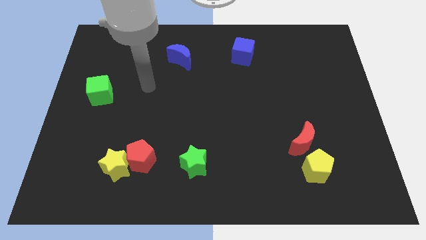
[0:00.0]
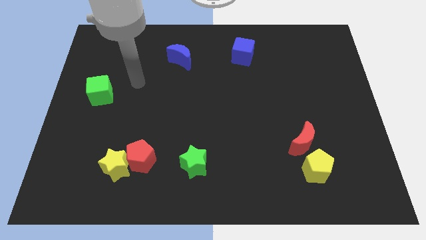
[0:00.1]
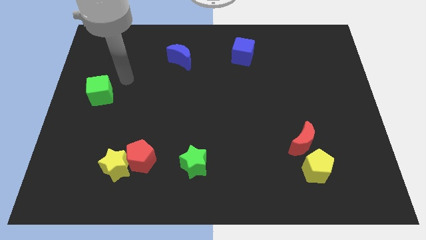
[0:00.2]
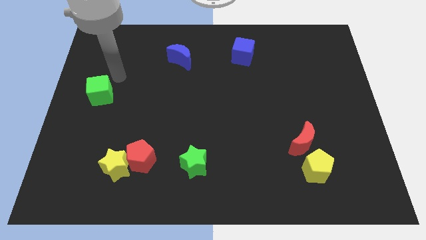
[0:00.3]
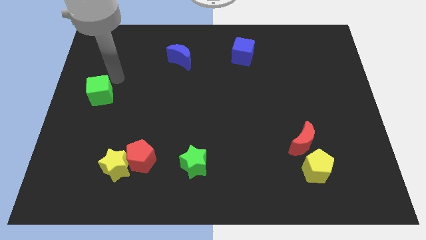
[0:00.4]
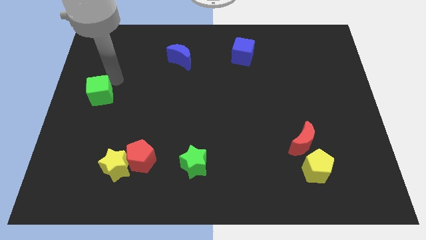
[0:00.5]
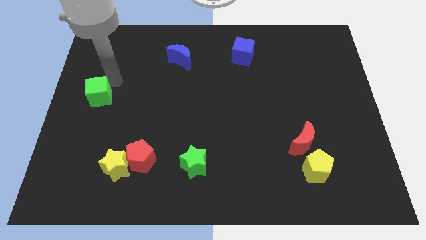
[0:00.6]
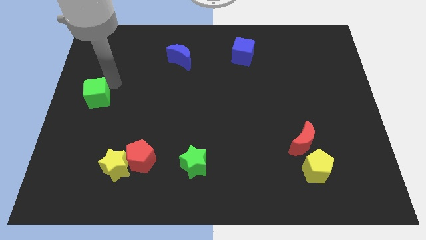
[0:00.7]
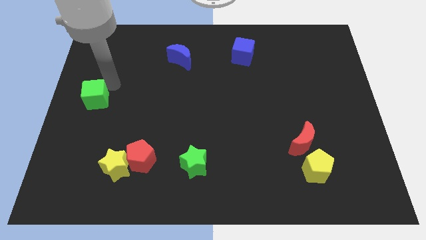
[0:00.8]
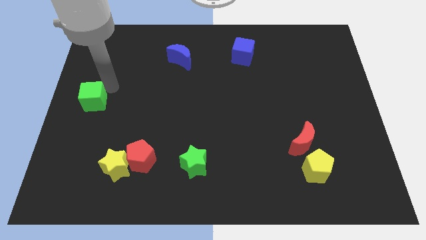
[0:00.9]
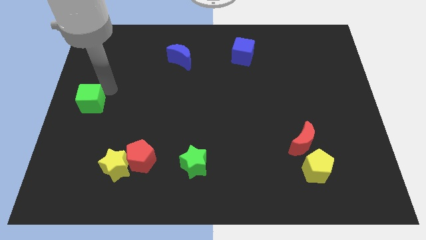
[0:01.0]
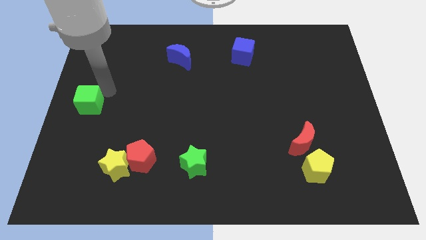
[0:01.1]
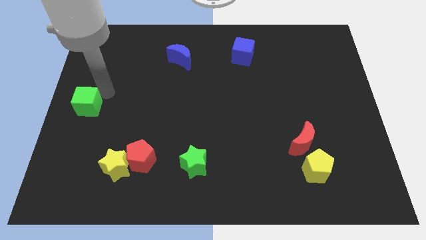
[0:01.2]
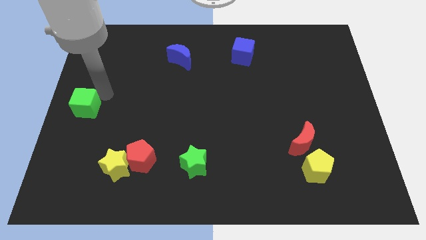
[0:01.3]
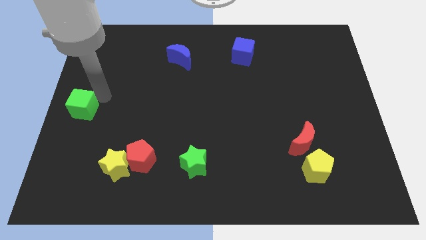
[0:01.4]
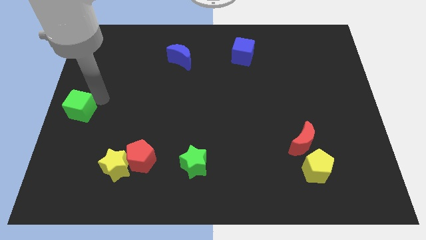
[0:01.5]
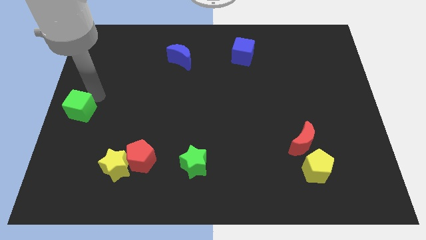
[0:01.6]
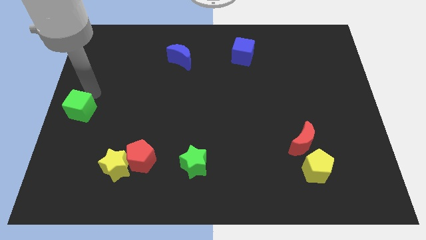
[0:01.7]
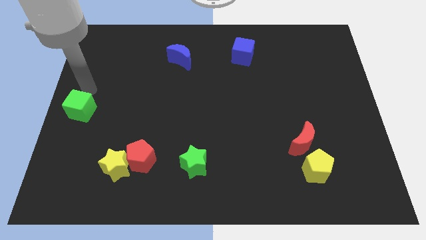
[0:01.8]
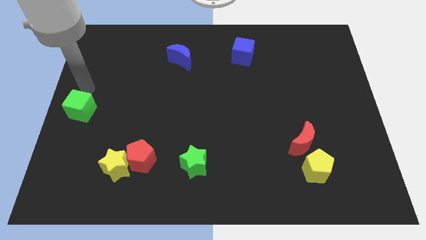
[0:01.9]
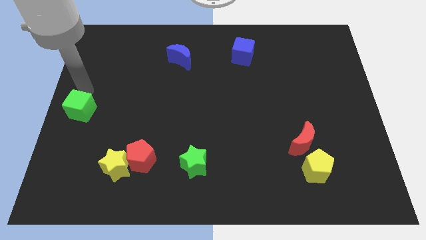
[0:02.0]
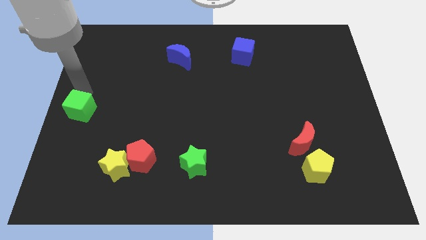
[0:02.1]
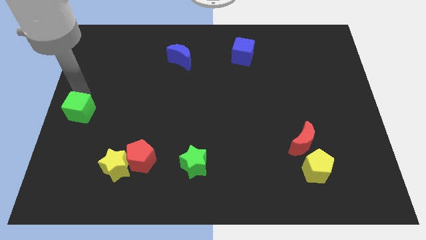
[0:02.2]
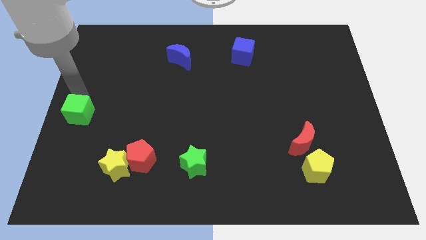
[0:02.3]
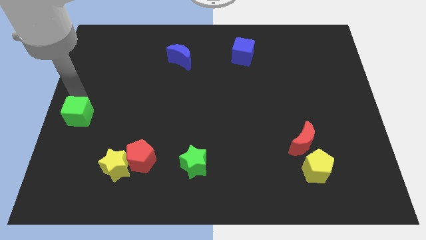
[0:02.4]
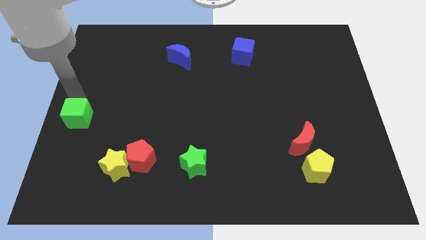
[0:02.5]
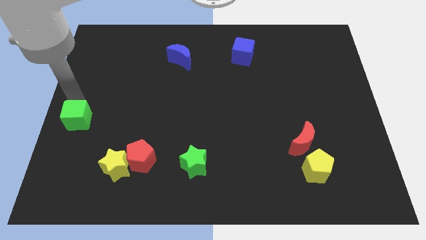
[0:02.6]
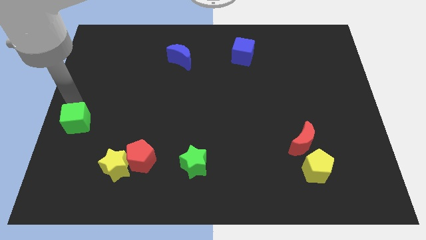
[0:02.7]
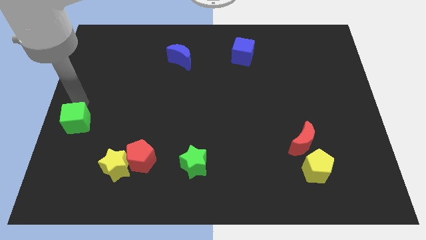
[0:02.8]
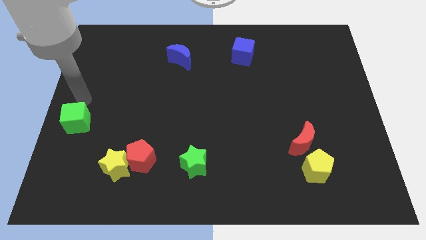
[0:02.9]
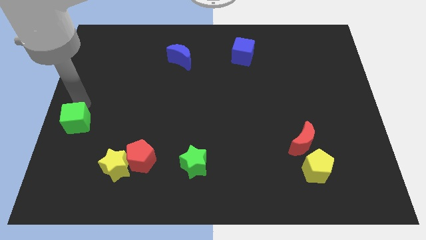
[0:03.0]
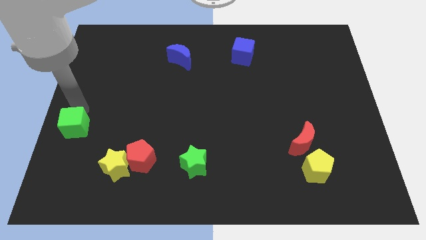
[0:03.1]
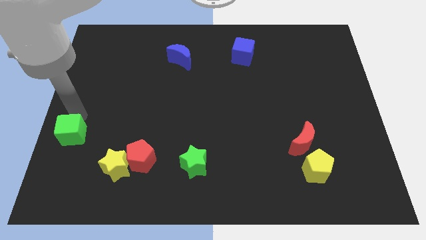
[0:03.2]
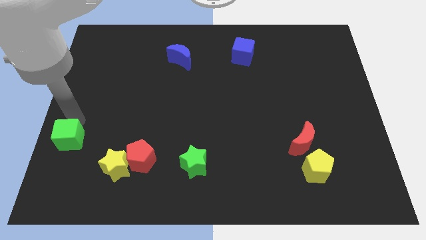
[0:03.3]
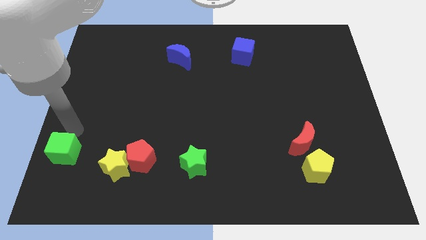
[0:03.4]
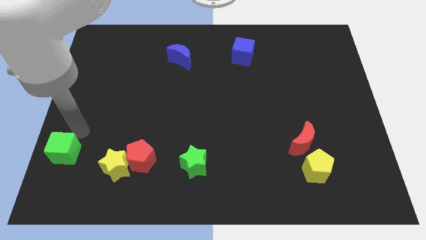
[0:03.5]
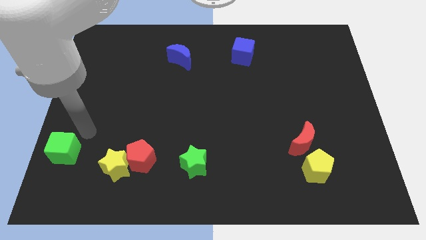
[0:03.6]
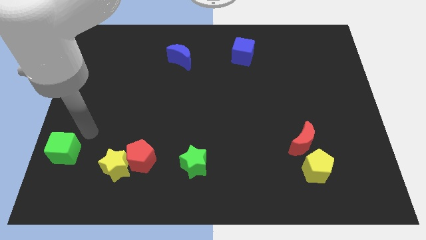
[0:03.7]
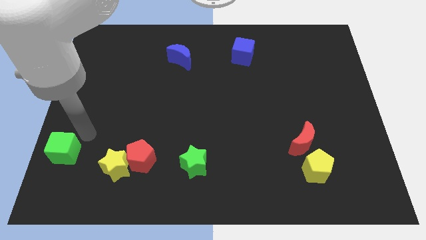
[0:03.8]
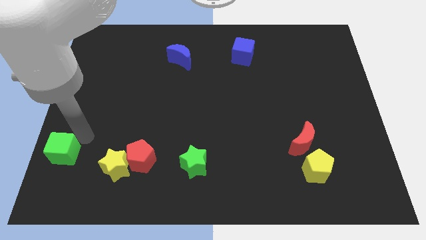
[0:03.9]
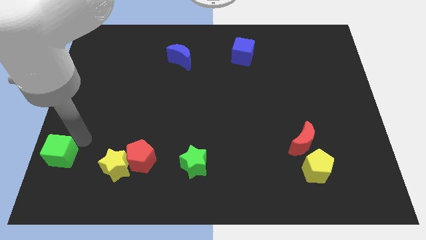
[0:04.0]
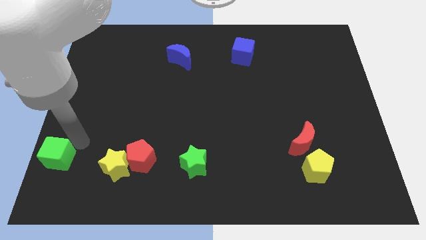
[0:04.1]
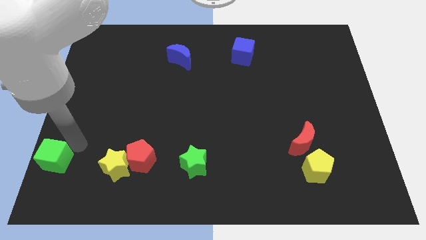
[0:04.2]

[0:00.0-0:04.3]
push the green cube to the bottom left

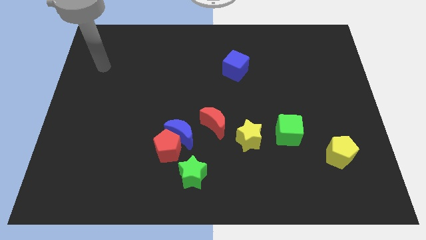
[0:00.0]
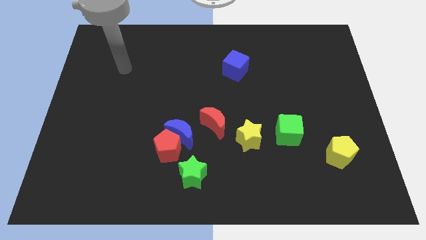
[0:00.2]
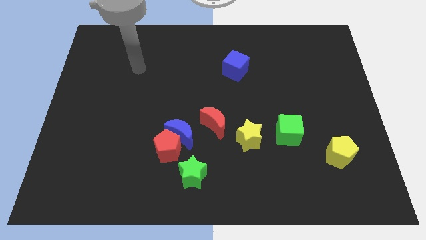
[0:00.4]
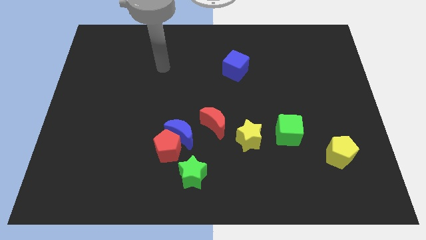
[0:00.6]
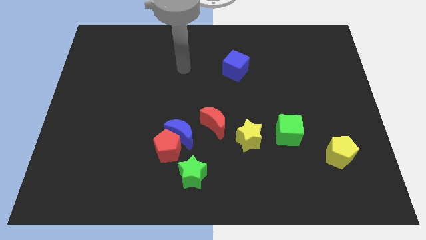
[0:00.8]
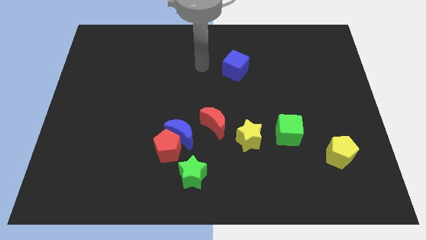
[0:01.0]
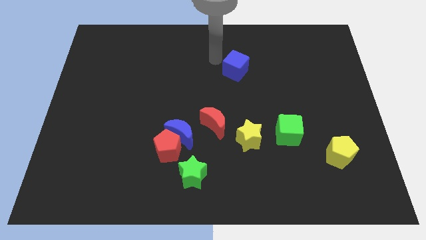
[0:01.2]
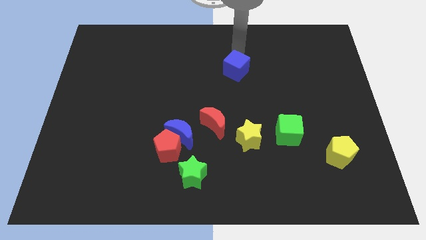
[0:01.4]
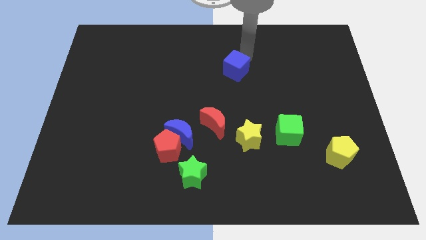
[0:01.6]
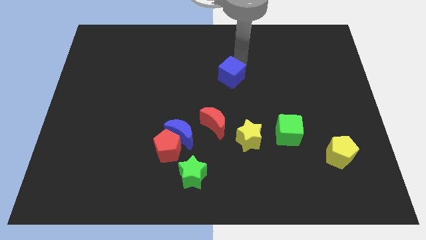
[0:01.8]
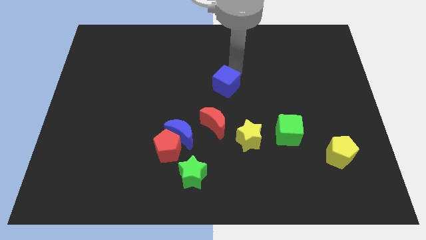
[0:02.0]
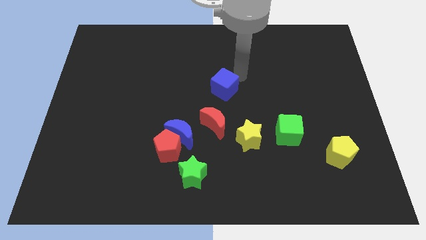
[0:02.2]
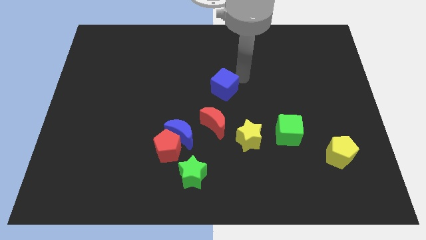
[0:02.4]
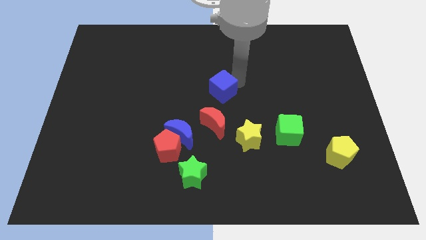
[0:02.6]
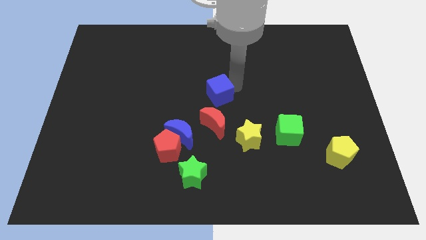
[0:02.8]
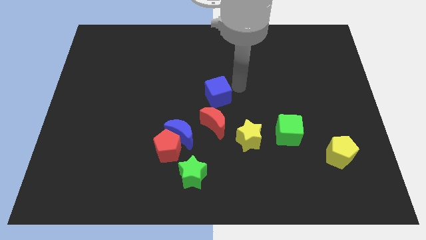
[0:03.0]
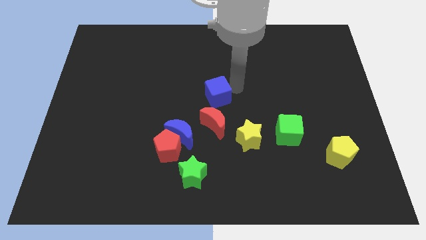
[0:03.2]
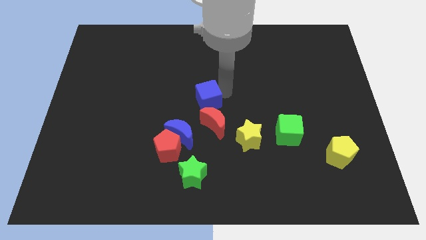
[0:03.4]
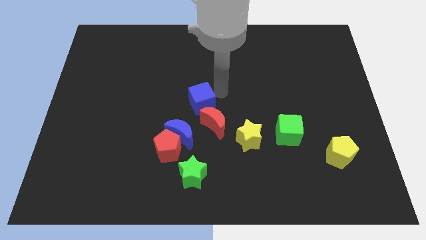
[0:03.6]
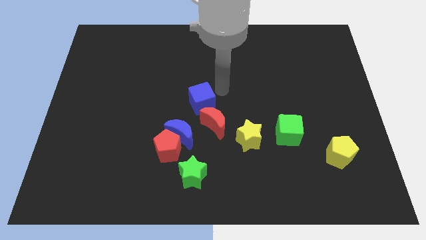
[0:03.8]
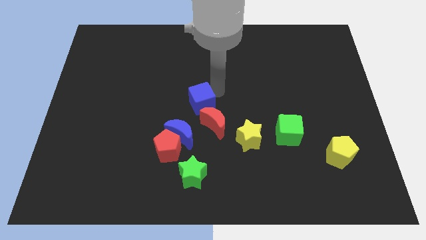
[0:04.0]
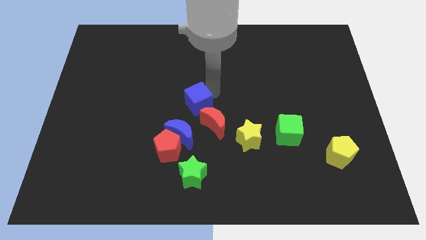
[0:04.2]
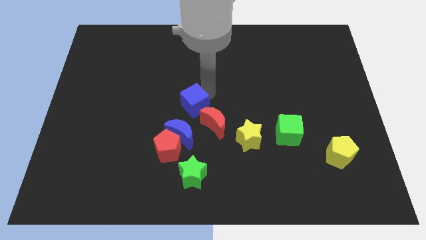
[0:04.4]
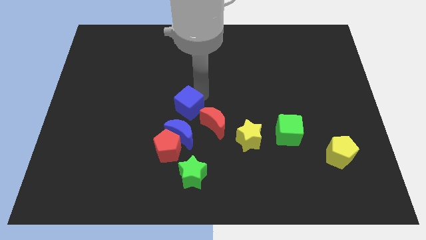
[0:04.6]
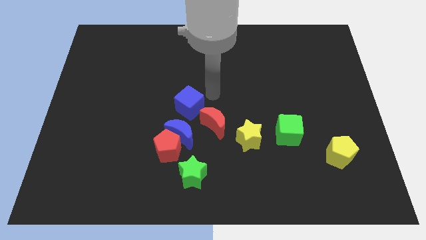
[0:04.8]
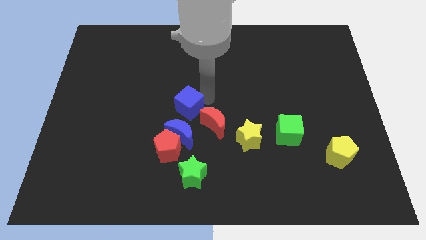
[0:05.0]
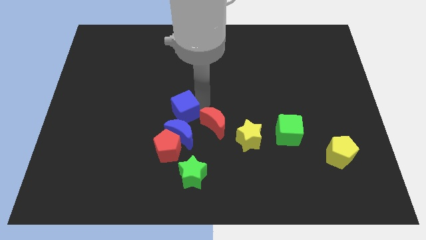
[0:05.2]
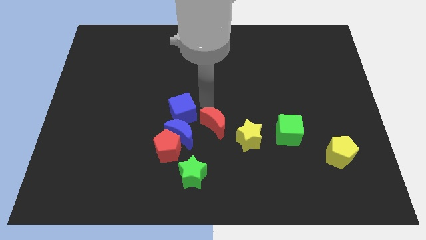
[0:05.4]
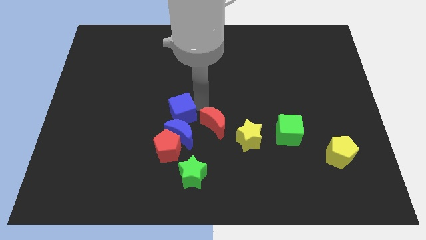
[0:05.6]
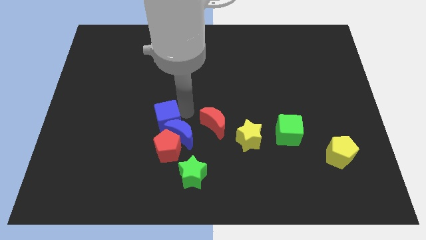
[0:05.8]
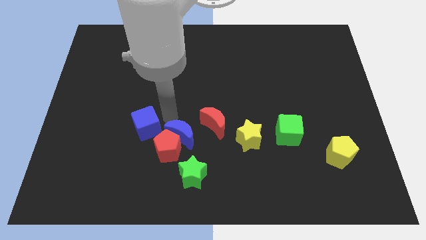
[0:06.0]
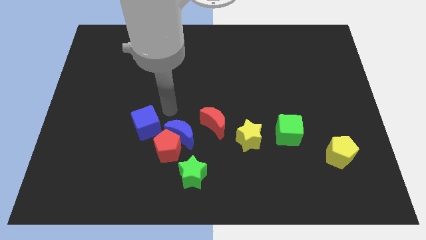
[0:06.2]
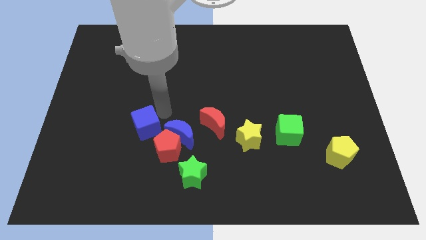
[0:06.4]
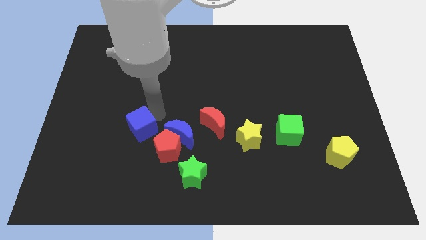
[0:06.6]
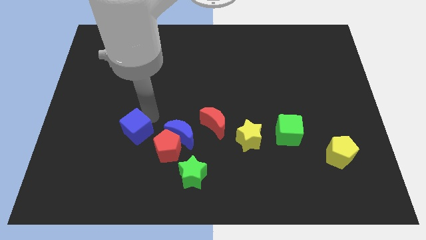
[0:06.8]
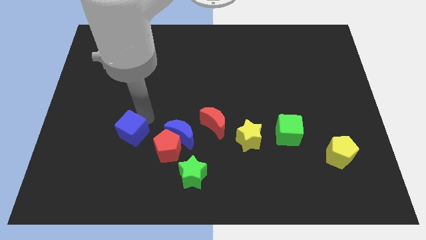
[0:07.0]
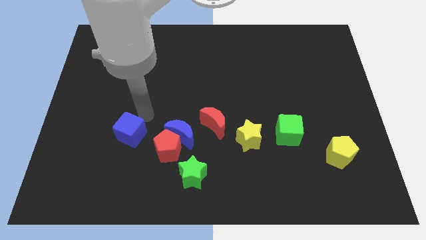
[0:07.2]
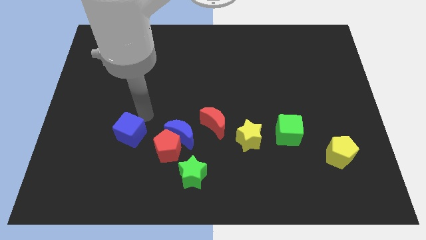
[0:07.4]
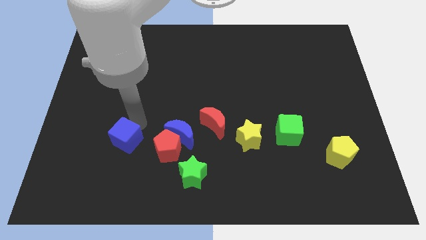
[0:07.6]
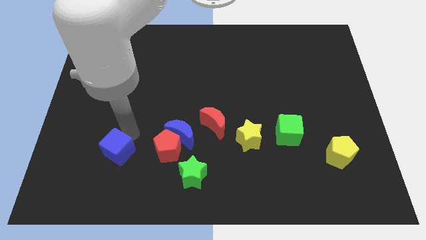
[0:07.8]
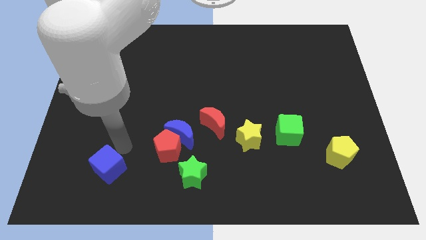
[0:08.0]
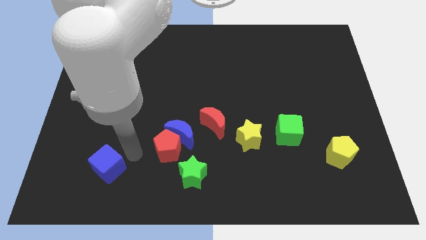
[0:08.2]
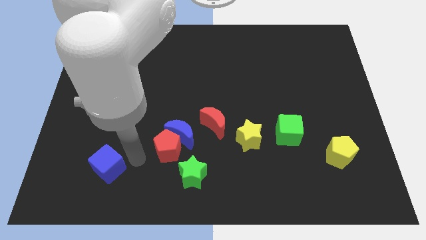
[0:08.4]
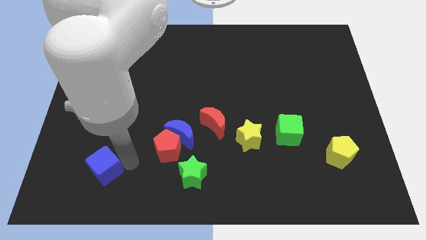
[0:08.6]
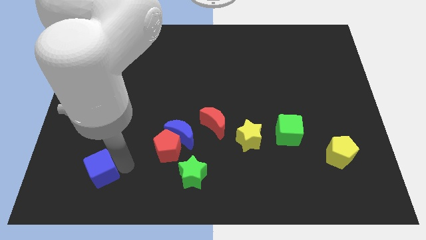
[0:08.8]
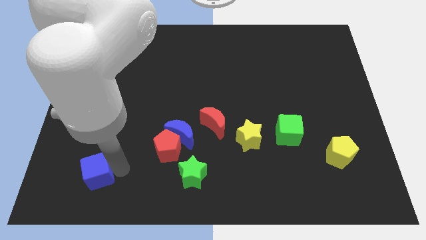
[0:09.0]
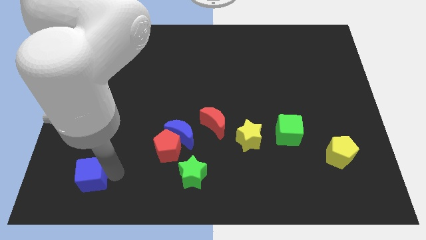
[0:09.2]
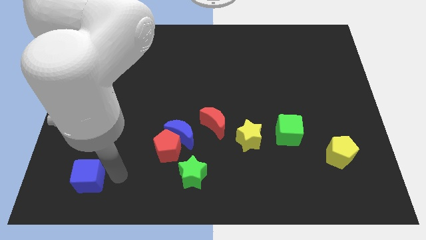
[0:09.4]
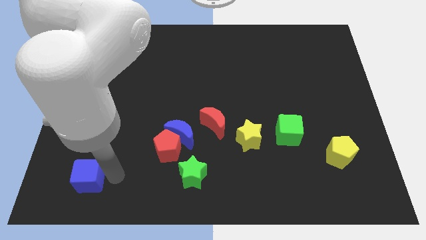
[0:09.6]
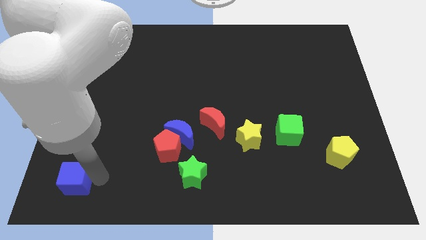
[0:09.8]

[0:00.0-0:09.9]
move the blue cube to the bottom left
